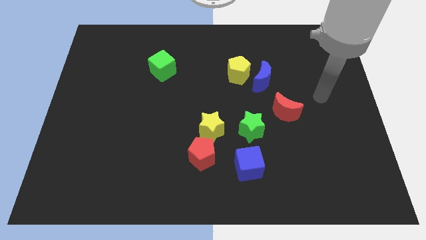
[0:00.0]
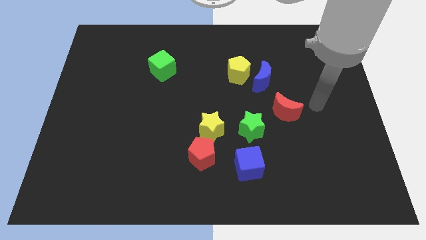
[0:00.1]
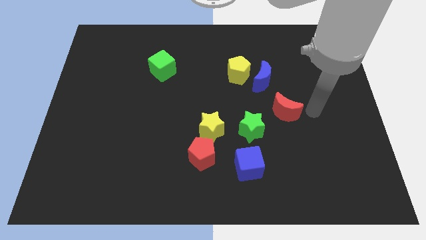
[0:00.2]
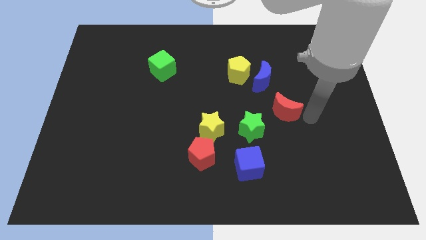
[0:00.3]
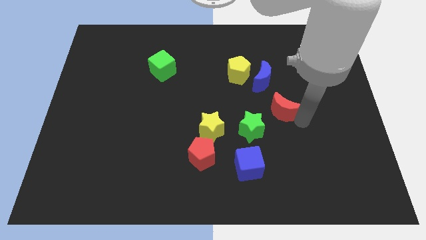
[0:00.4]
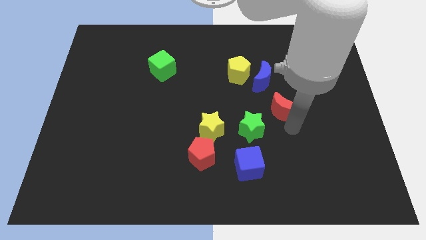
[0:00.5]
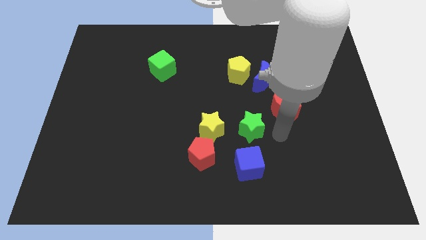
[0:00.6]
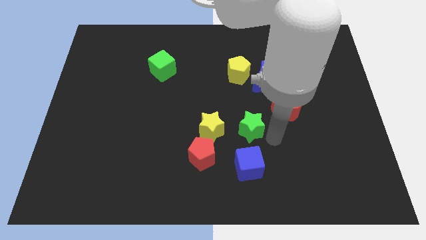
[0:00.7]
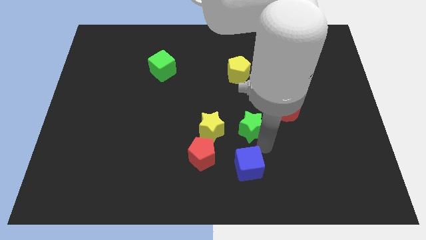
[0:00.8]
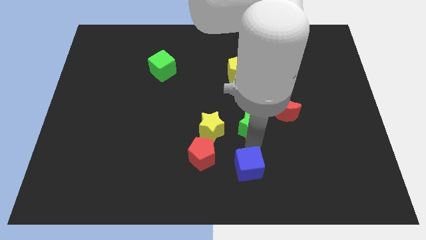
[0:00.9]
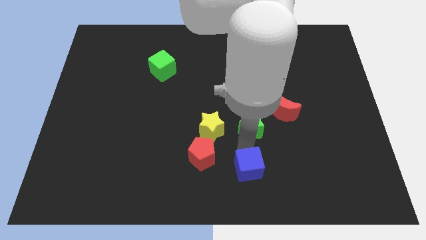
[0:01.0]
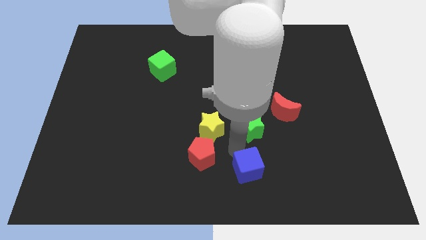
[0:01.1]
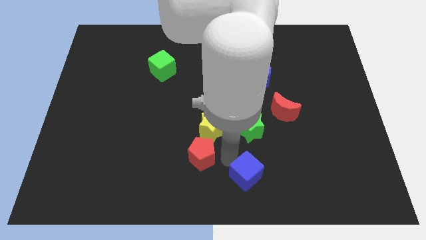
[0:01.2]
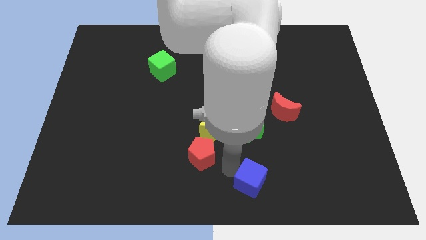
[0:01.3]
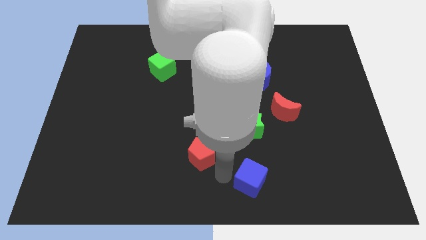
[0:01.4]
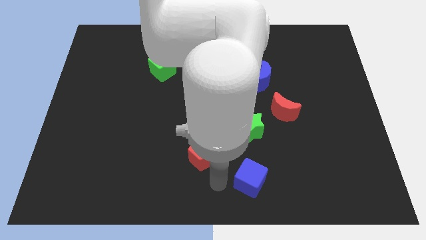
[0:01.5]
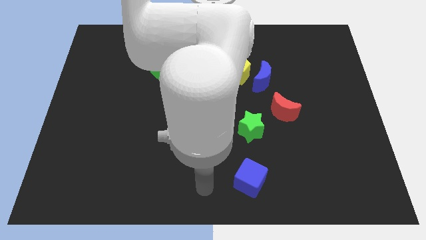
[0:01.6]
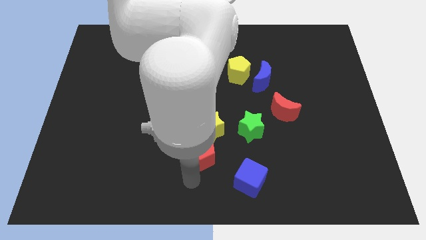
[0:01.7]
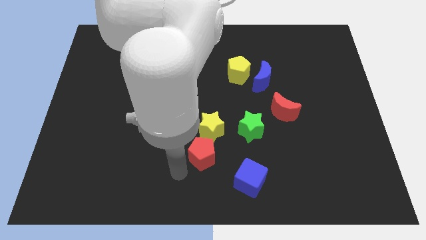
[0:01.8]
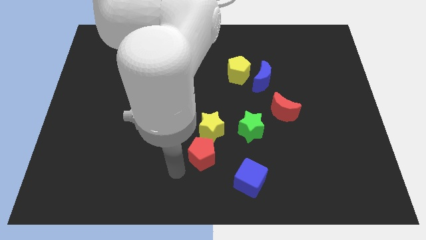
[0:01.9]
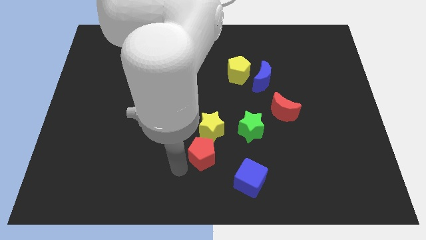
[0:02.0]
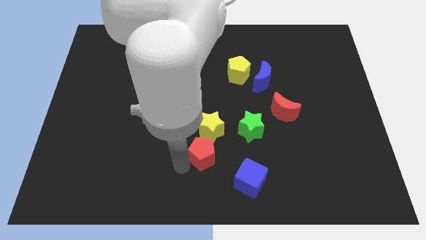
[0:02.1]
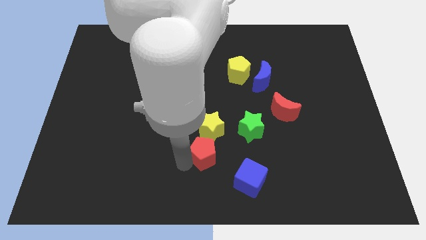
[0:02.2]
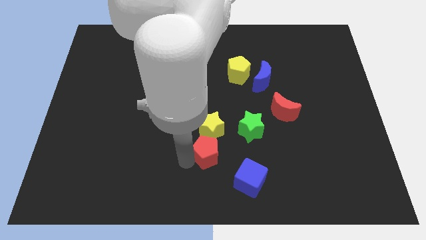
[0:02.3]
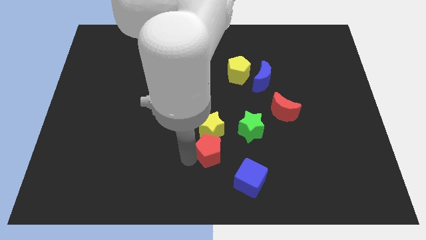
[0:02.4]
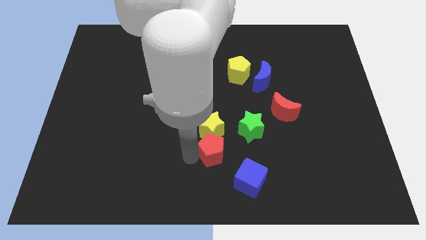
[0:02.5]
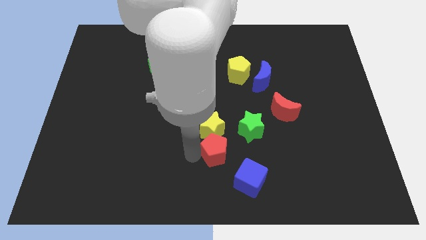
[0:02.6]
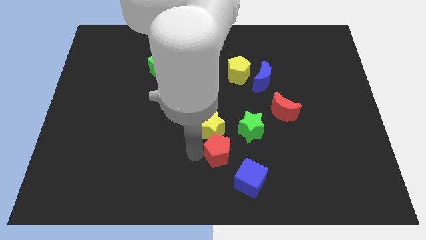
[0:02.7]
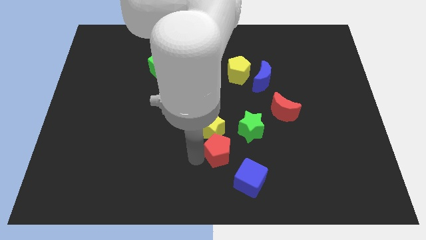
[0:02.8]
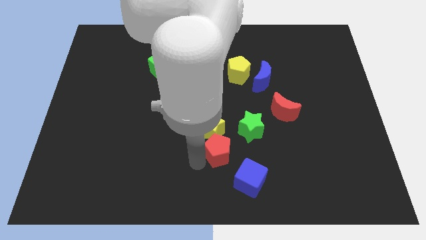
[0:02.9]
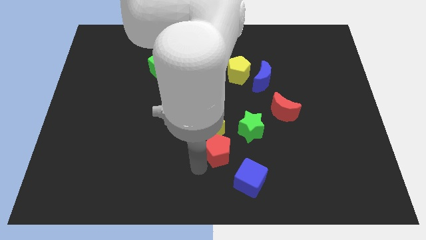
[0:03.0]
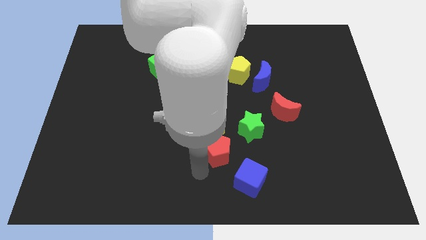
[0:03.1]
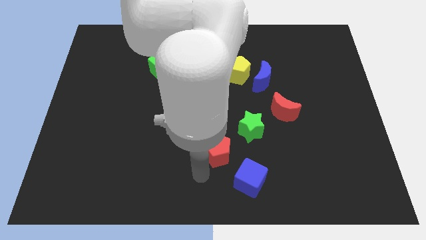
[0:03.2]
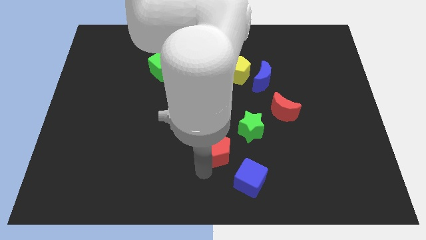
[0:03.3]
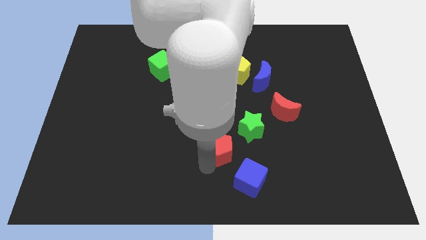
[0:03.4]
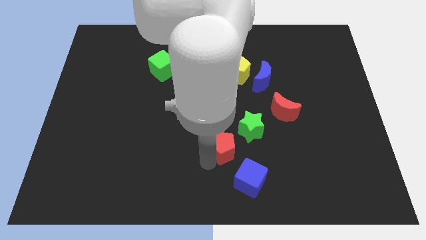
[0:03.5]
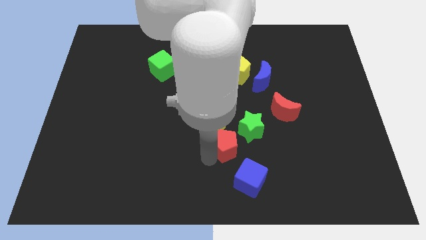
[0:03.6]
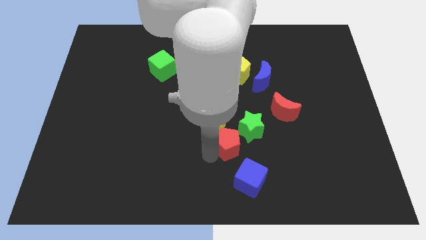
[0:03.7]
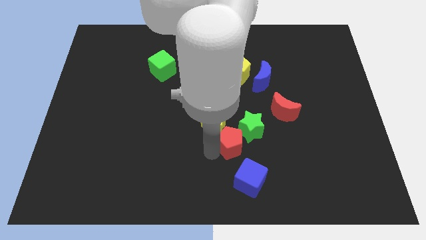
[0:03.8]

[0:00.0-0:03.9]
push the red pentagon next to the green star

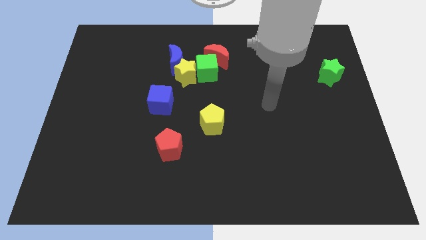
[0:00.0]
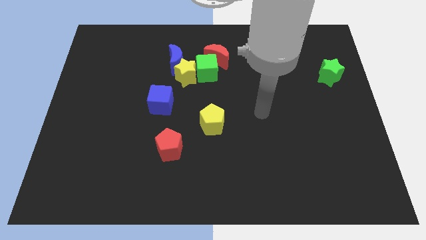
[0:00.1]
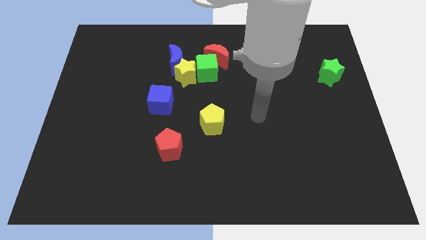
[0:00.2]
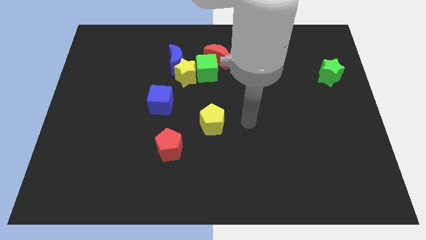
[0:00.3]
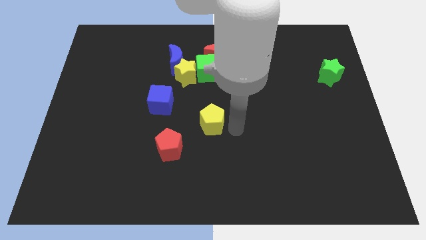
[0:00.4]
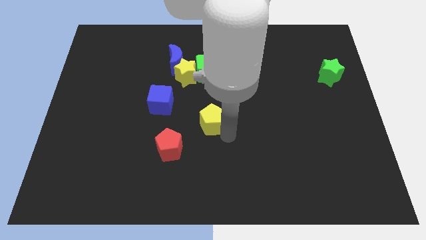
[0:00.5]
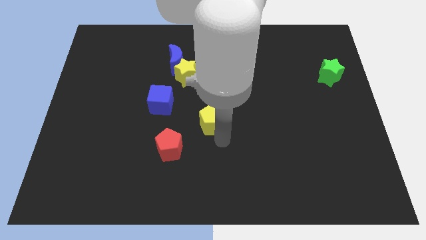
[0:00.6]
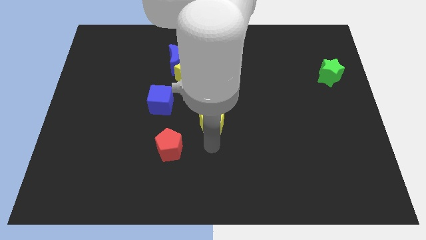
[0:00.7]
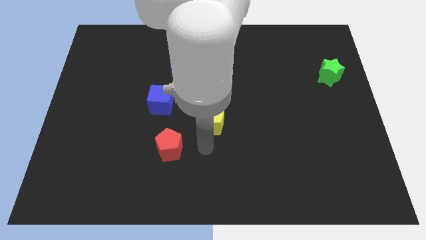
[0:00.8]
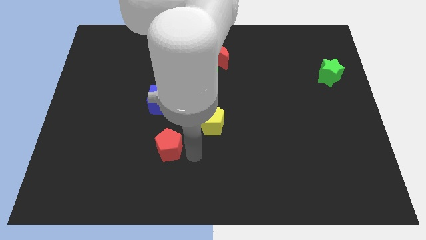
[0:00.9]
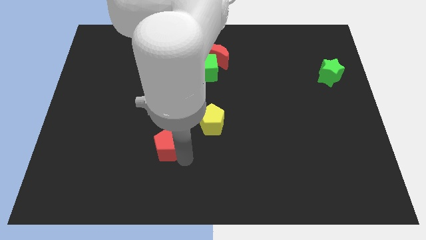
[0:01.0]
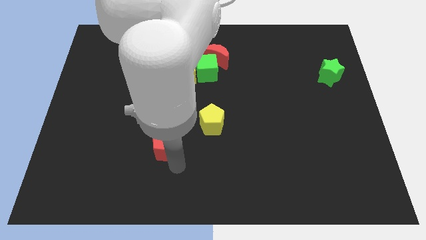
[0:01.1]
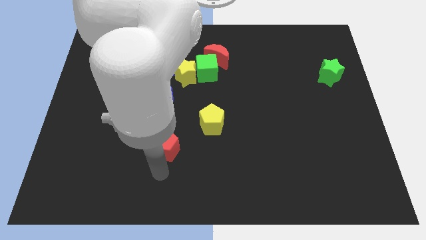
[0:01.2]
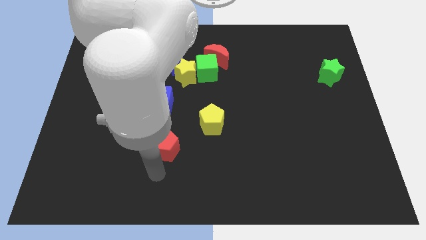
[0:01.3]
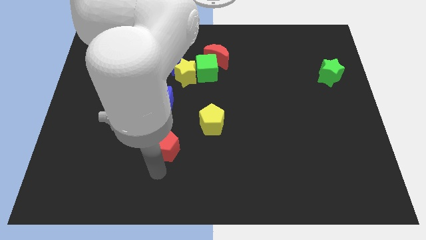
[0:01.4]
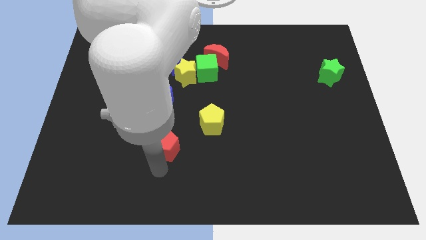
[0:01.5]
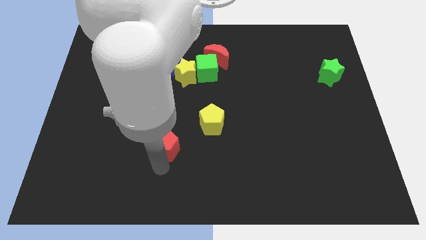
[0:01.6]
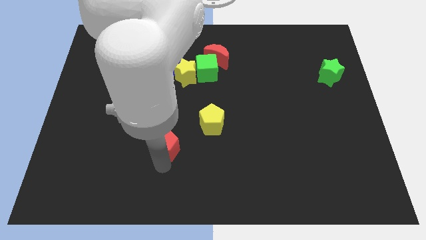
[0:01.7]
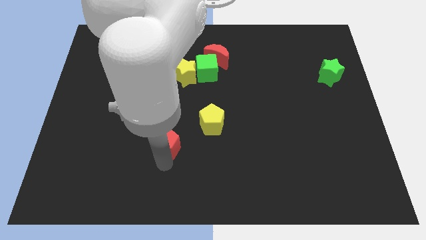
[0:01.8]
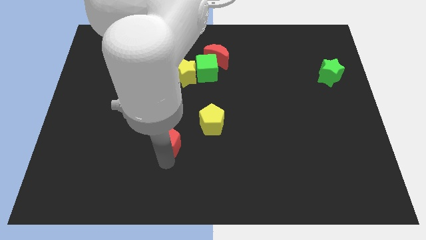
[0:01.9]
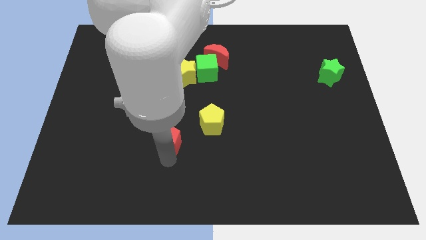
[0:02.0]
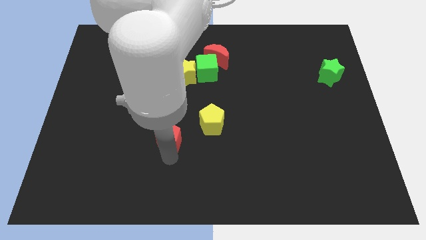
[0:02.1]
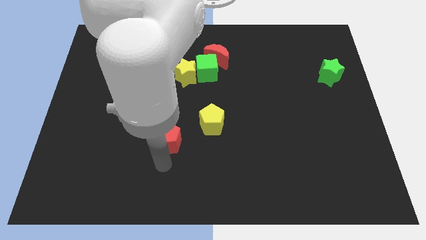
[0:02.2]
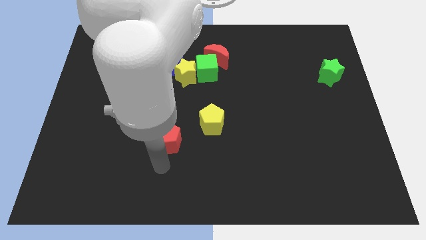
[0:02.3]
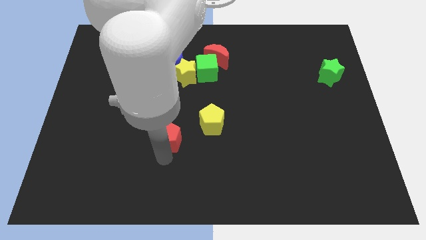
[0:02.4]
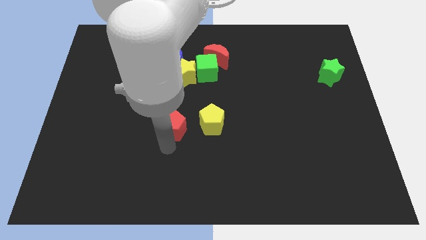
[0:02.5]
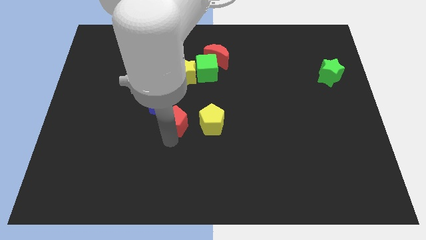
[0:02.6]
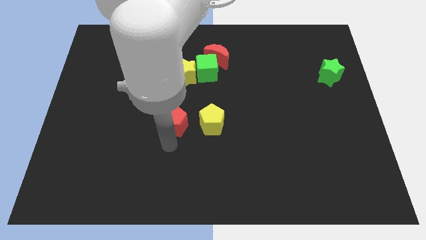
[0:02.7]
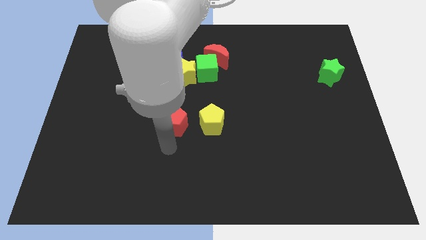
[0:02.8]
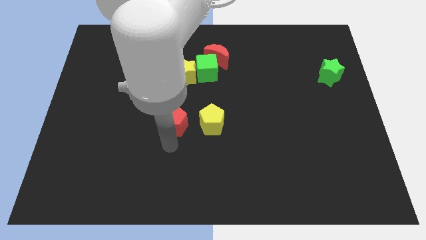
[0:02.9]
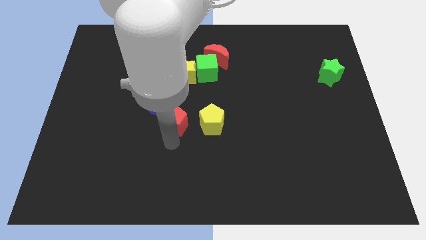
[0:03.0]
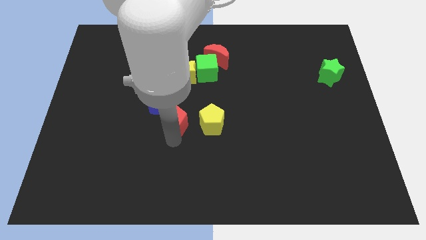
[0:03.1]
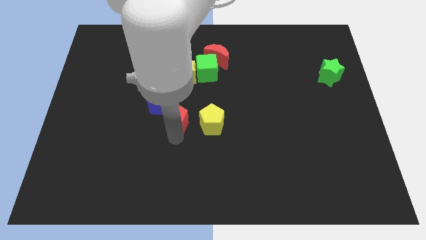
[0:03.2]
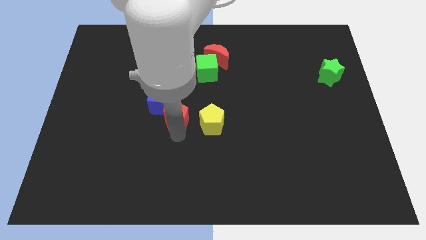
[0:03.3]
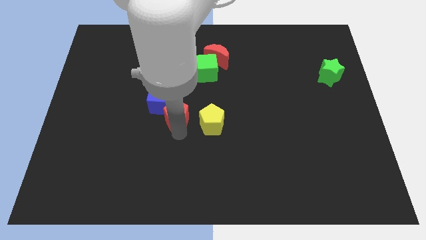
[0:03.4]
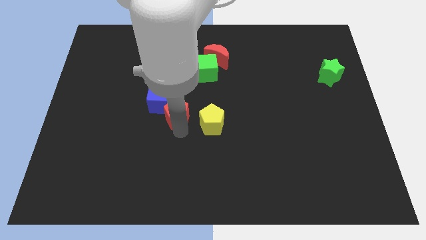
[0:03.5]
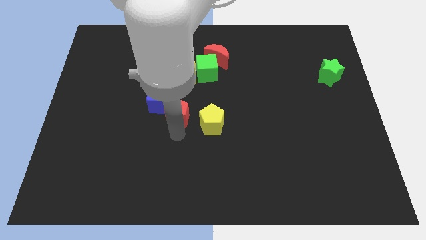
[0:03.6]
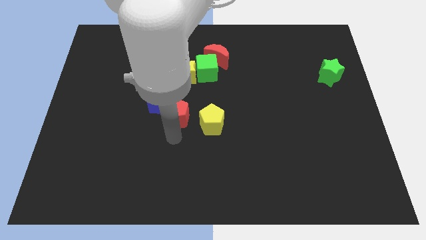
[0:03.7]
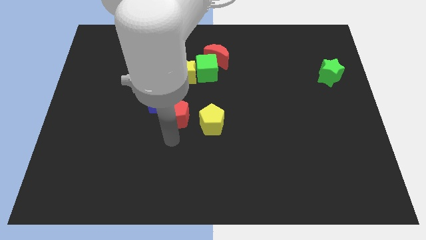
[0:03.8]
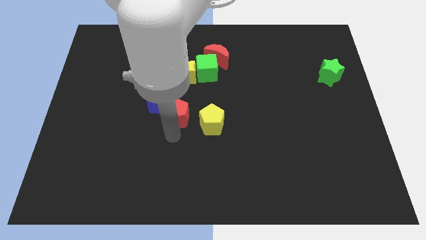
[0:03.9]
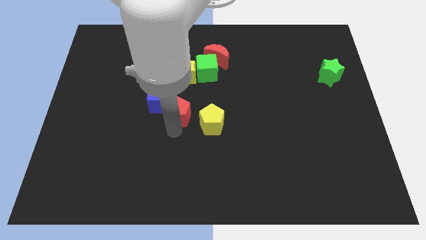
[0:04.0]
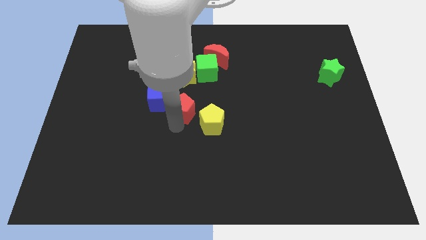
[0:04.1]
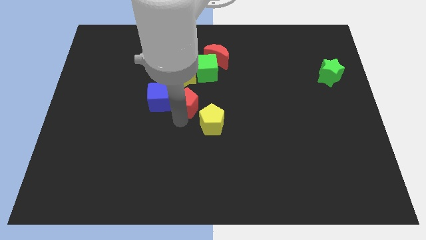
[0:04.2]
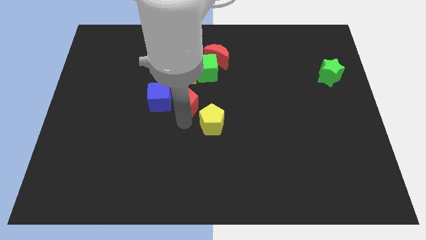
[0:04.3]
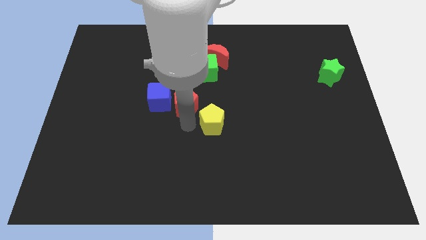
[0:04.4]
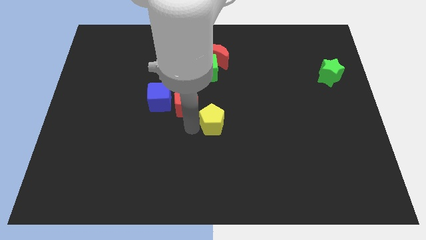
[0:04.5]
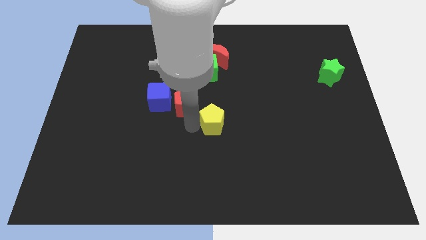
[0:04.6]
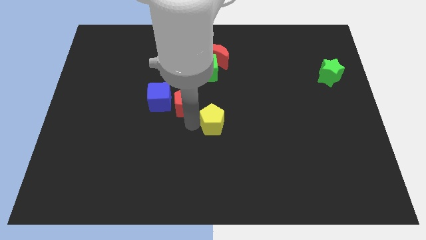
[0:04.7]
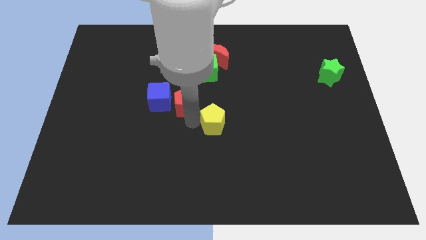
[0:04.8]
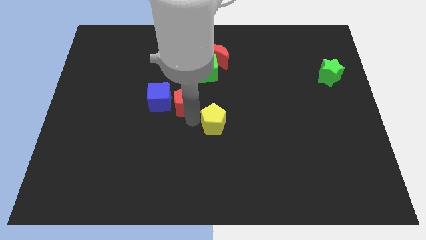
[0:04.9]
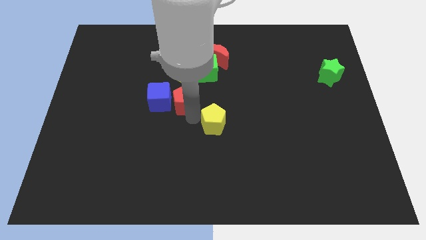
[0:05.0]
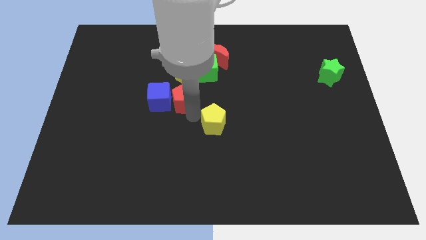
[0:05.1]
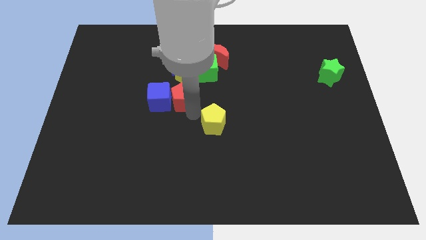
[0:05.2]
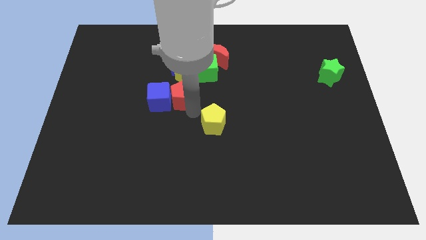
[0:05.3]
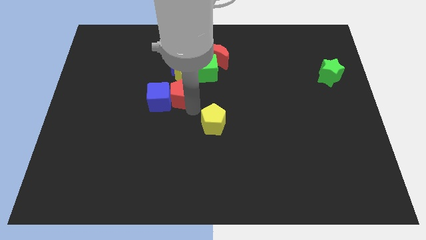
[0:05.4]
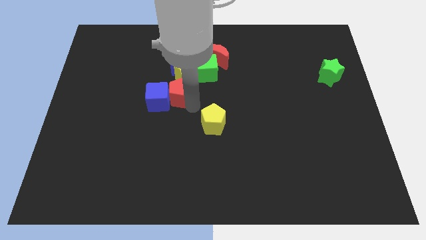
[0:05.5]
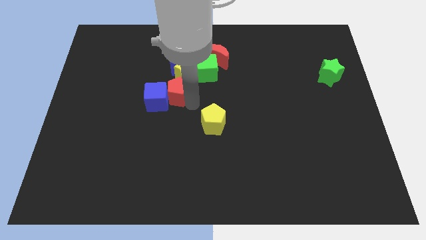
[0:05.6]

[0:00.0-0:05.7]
put the red pentagon to the yellow star
